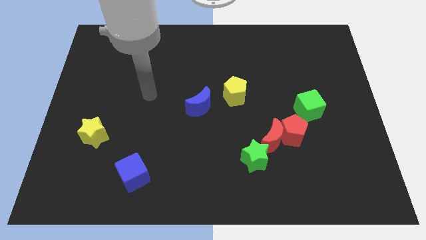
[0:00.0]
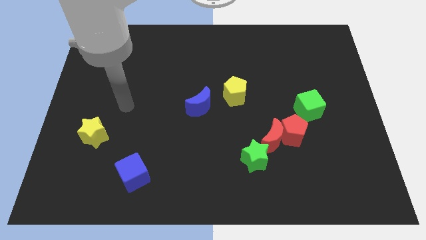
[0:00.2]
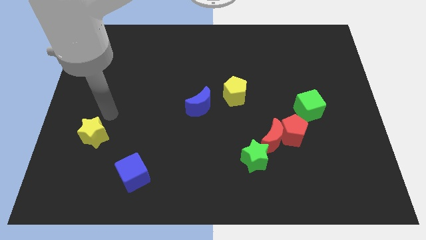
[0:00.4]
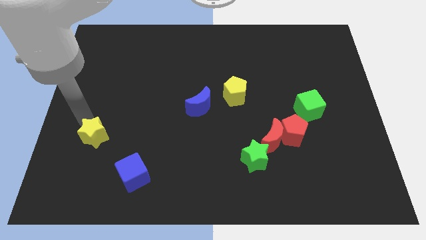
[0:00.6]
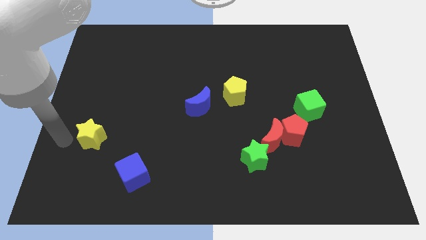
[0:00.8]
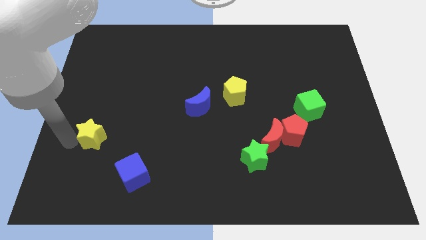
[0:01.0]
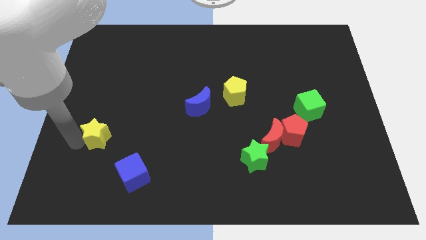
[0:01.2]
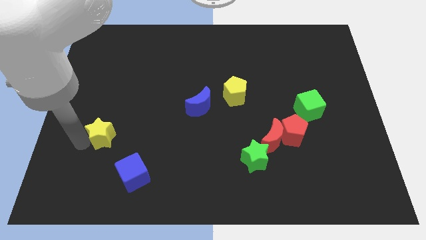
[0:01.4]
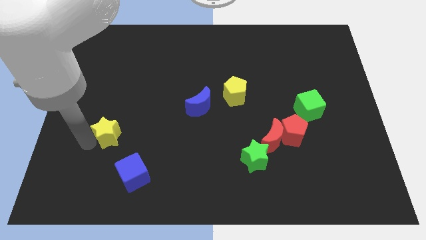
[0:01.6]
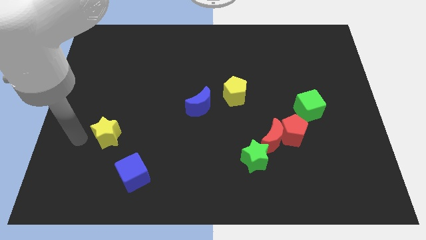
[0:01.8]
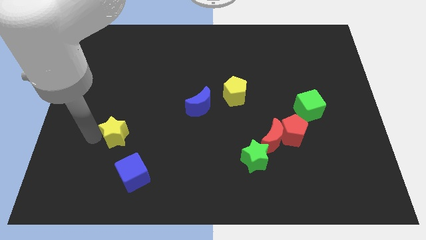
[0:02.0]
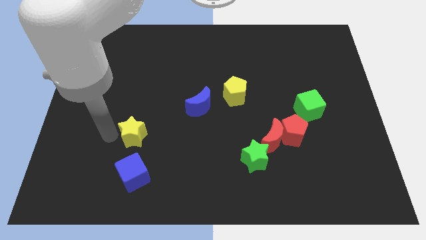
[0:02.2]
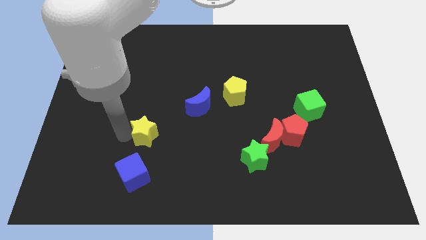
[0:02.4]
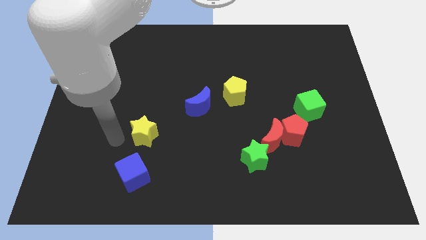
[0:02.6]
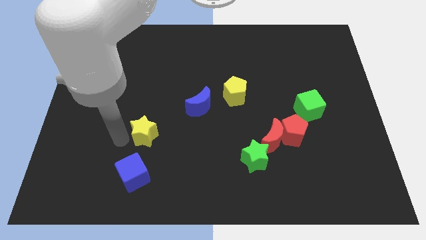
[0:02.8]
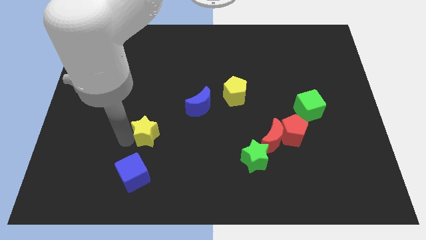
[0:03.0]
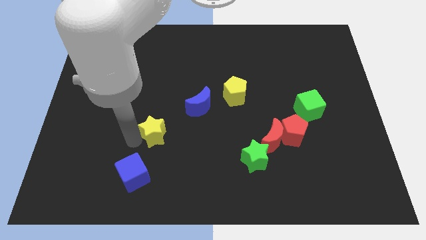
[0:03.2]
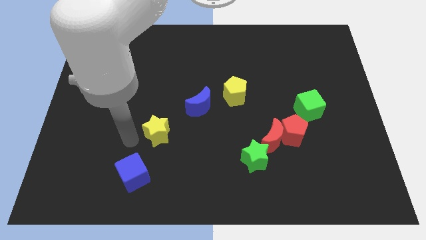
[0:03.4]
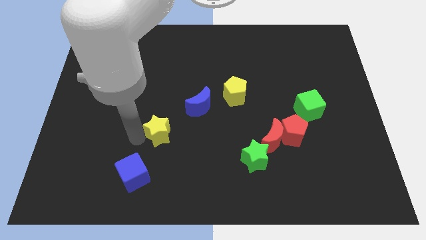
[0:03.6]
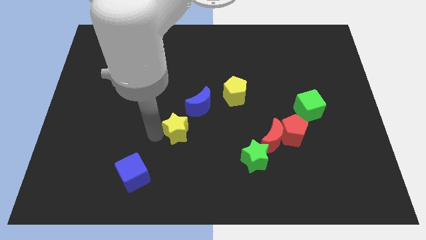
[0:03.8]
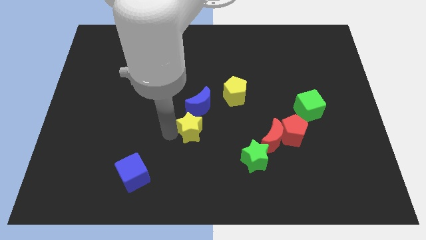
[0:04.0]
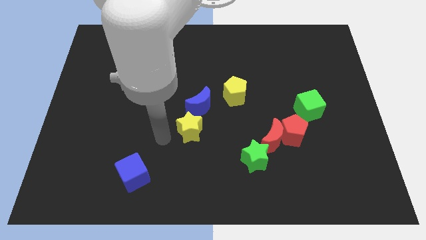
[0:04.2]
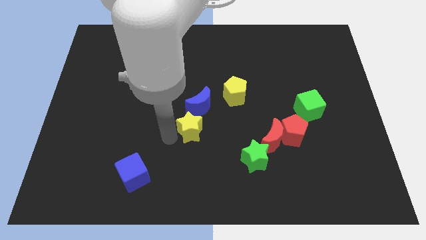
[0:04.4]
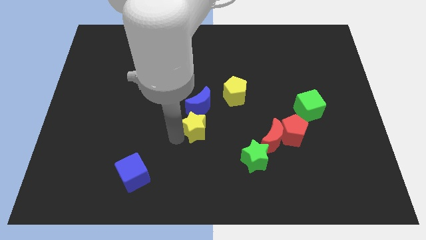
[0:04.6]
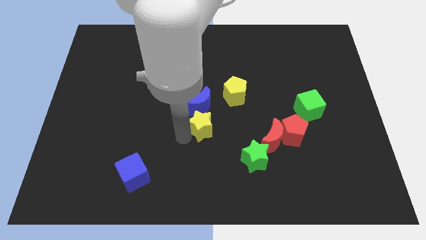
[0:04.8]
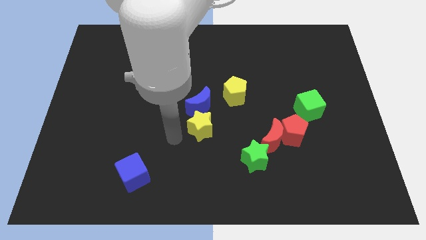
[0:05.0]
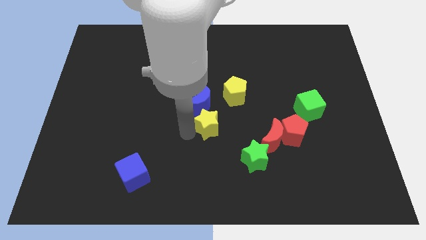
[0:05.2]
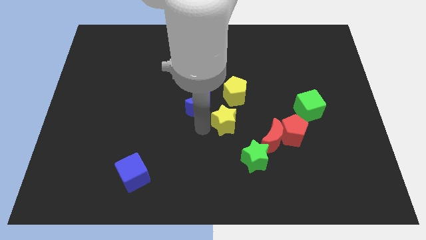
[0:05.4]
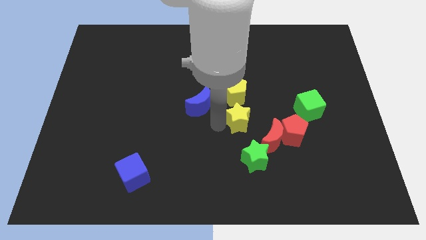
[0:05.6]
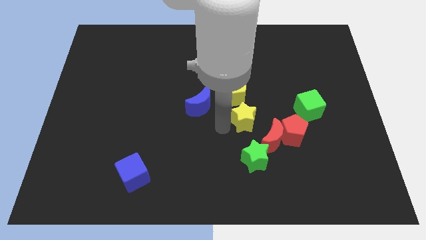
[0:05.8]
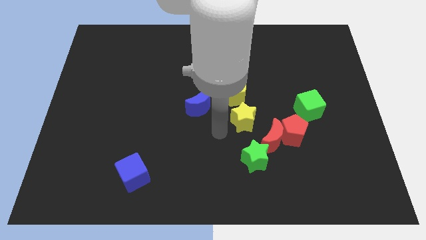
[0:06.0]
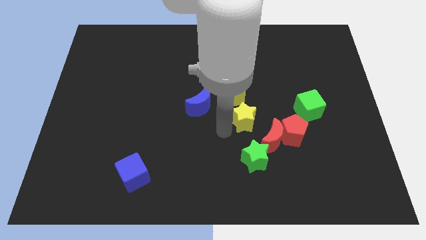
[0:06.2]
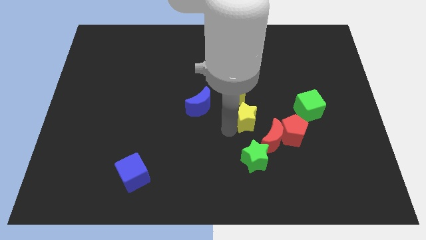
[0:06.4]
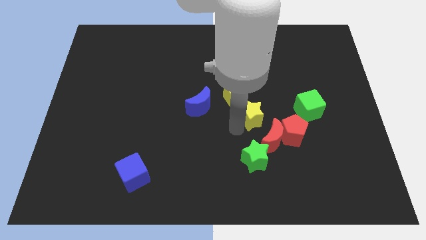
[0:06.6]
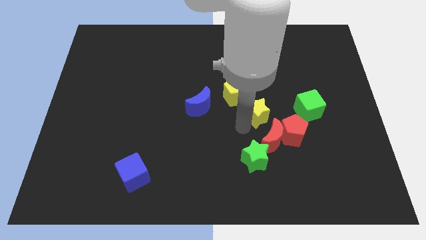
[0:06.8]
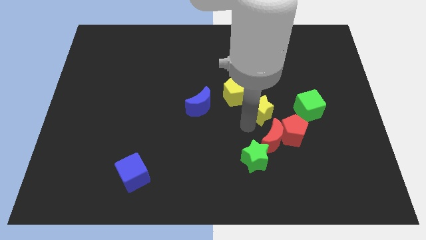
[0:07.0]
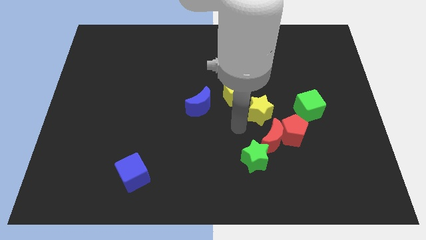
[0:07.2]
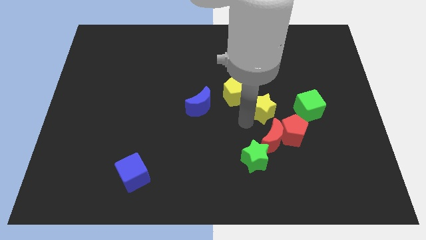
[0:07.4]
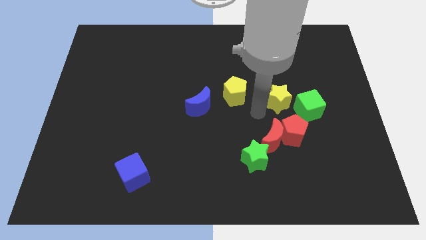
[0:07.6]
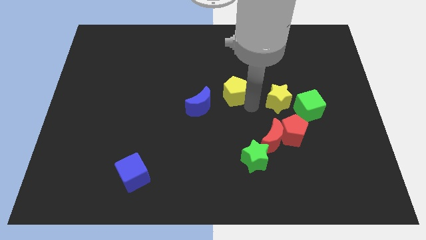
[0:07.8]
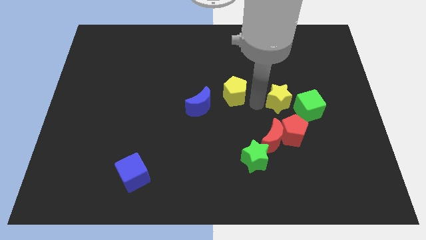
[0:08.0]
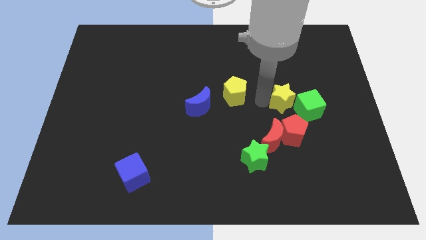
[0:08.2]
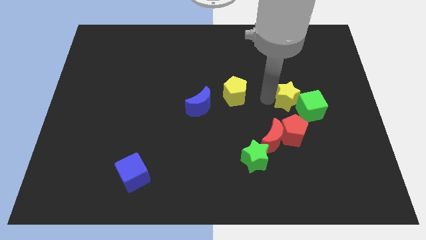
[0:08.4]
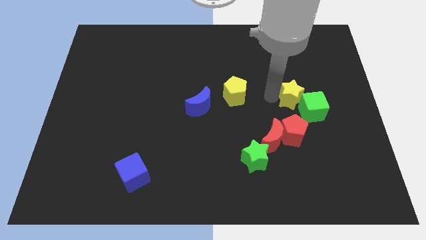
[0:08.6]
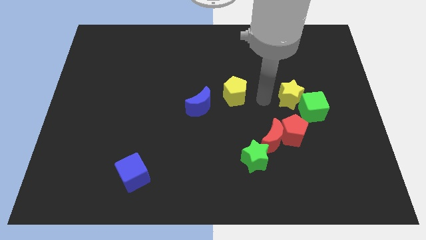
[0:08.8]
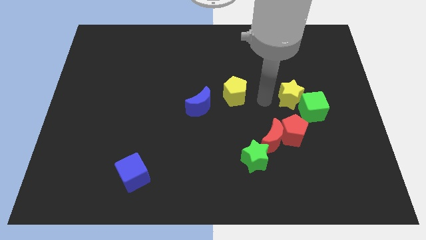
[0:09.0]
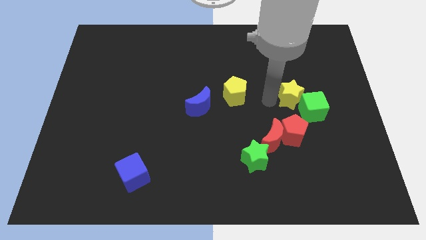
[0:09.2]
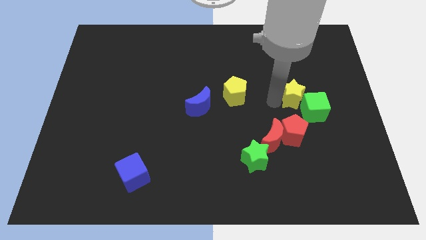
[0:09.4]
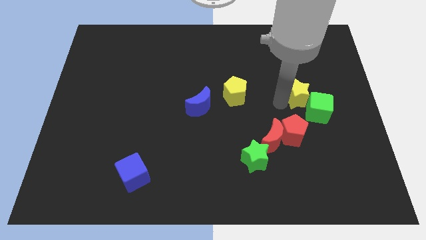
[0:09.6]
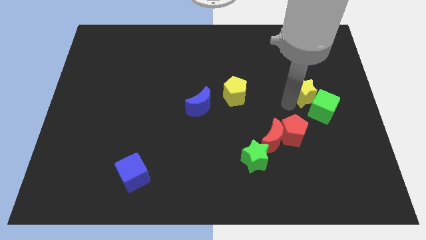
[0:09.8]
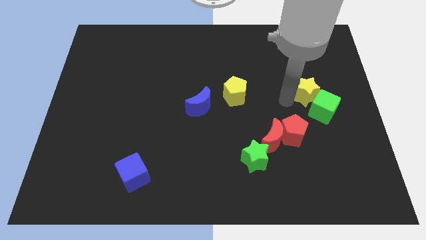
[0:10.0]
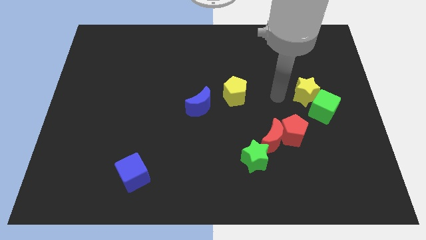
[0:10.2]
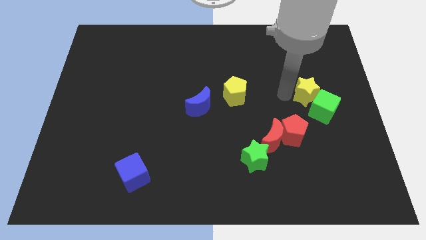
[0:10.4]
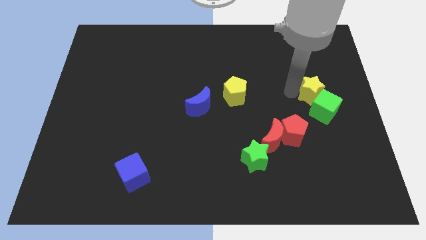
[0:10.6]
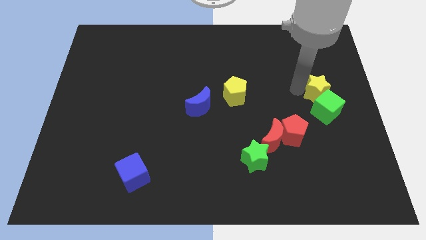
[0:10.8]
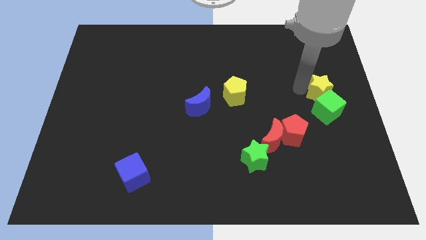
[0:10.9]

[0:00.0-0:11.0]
move the yellow star to the top right side of the green cube

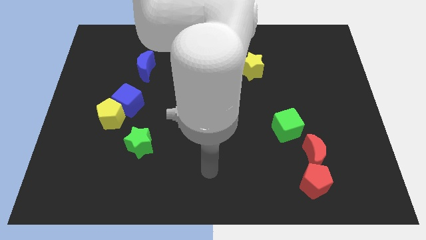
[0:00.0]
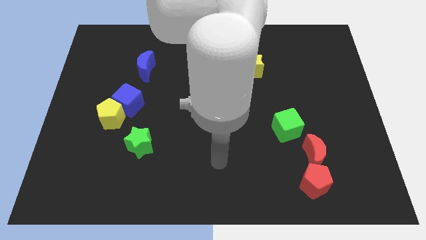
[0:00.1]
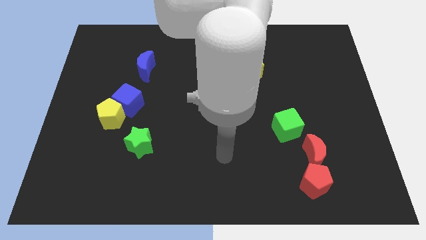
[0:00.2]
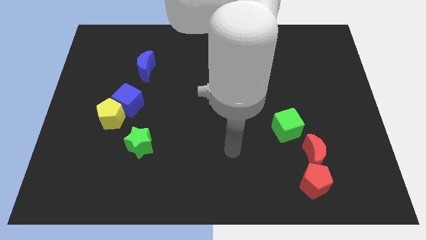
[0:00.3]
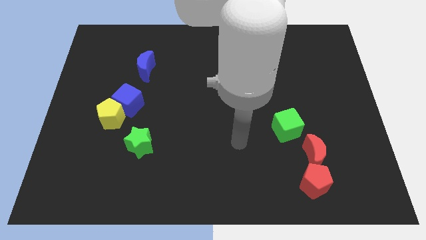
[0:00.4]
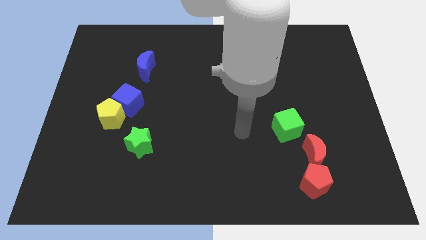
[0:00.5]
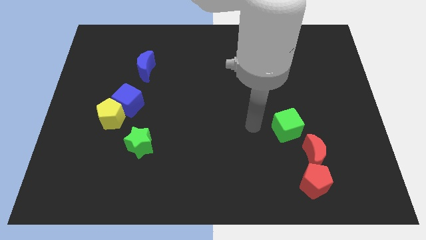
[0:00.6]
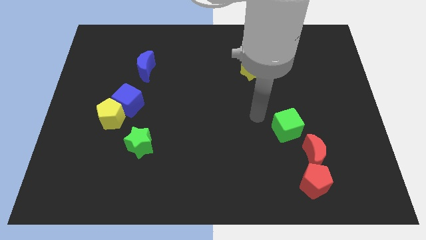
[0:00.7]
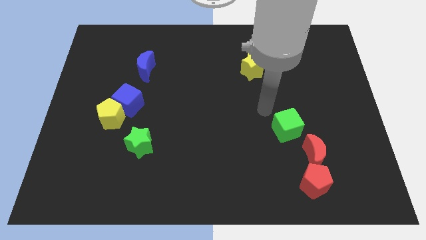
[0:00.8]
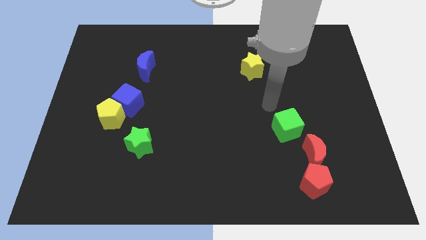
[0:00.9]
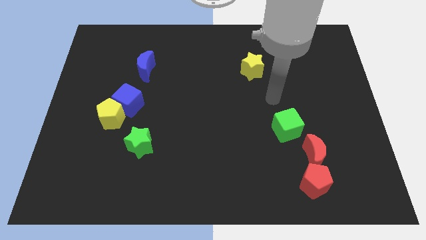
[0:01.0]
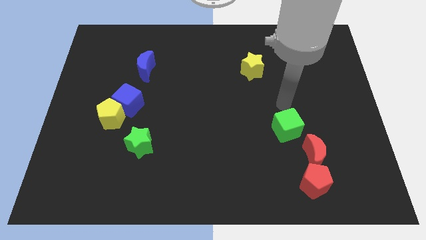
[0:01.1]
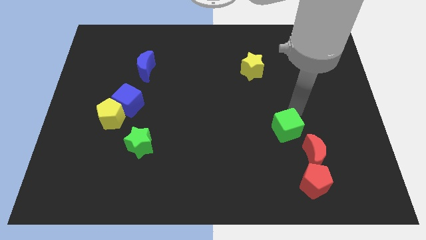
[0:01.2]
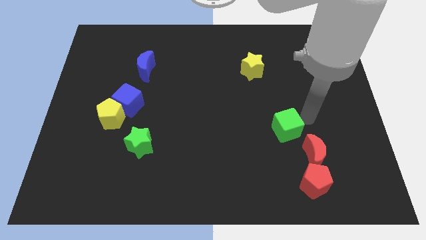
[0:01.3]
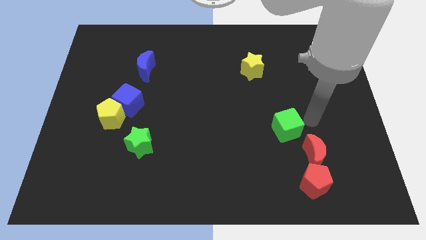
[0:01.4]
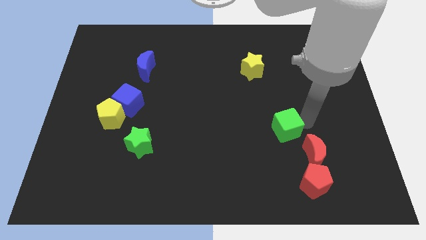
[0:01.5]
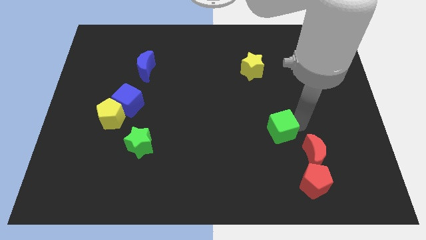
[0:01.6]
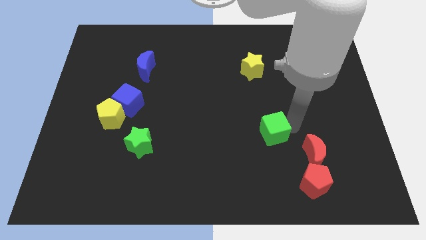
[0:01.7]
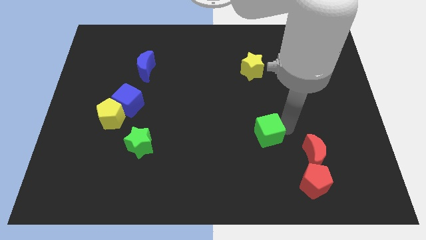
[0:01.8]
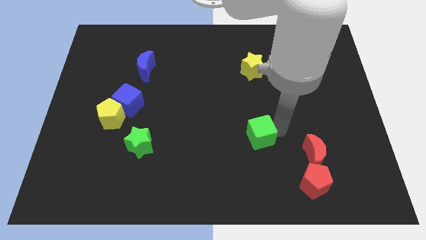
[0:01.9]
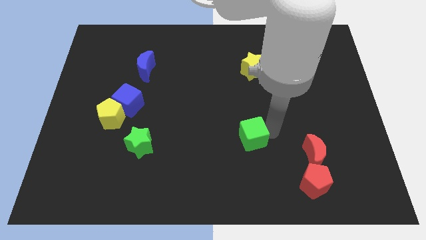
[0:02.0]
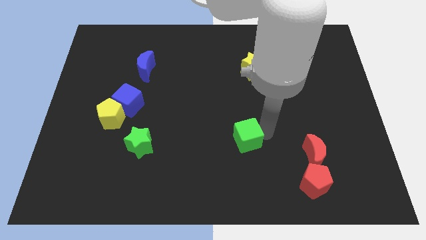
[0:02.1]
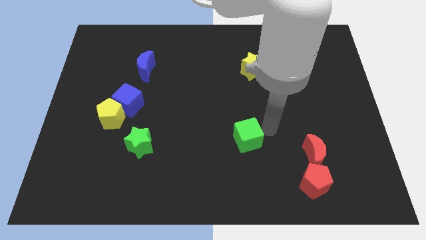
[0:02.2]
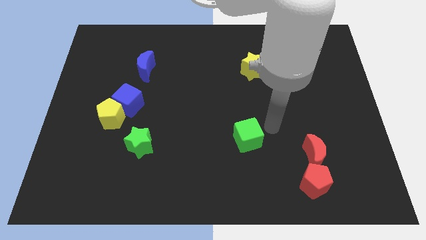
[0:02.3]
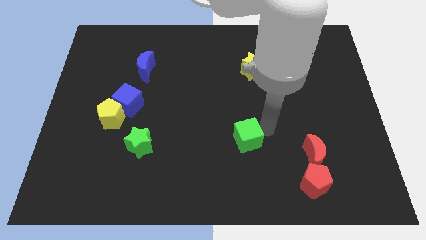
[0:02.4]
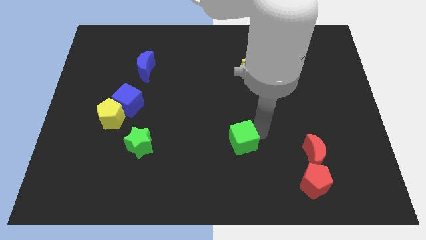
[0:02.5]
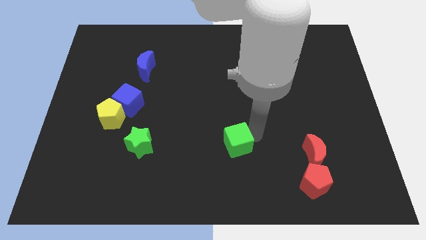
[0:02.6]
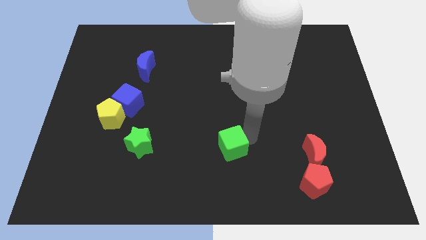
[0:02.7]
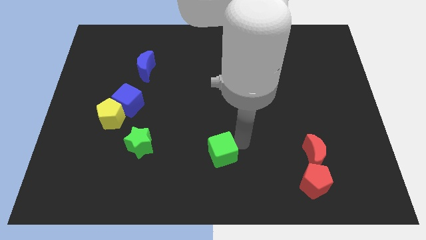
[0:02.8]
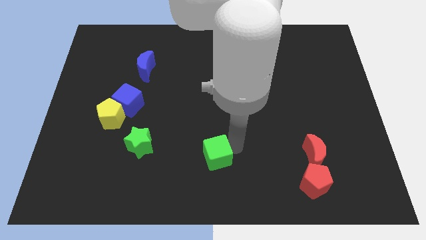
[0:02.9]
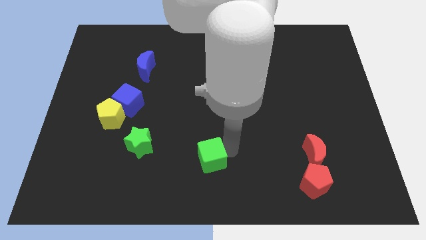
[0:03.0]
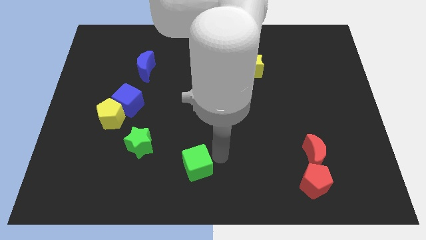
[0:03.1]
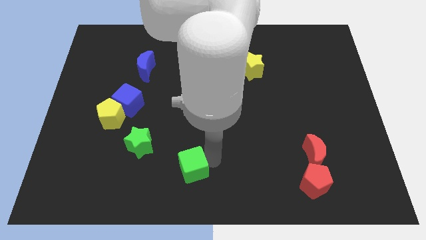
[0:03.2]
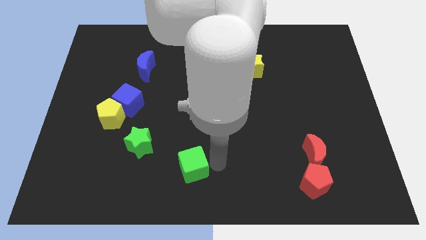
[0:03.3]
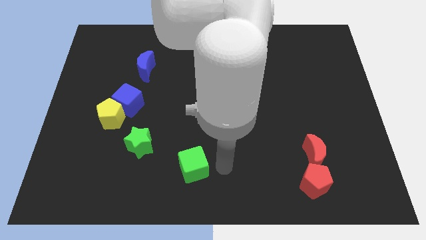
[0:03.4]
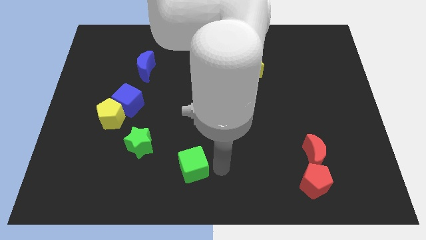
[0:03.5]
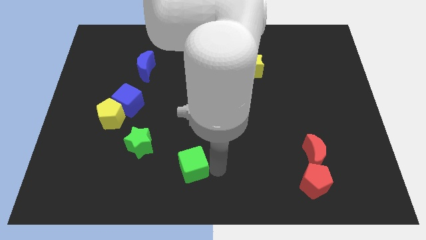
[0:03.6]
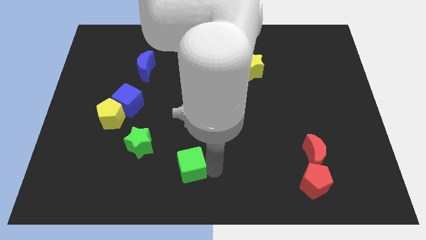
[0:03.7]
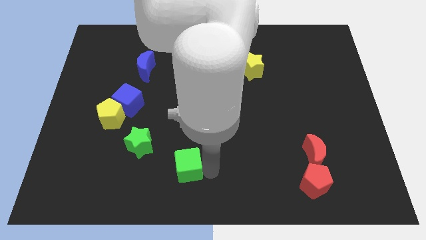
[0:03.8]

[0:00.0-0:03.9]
slide the green cube to the bottom right of the green star
